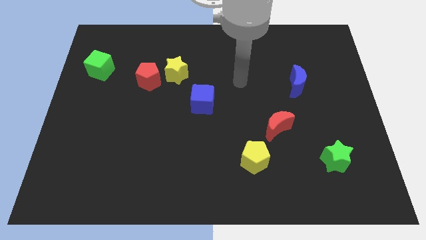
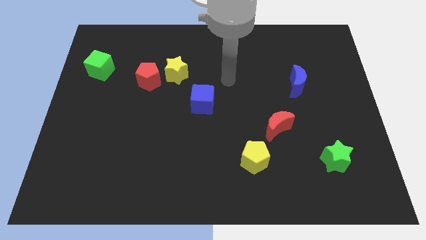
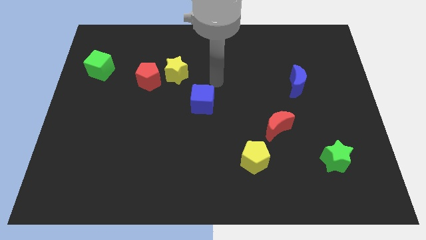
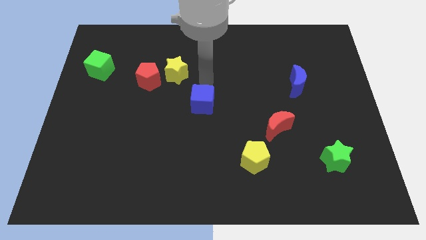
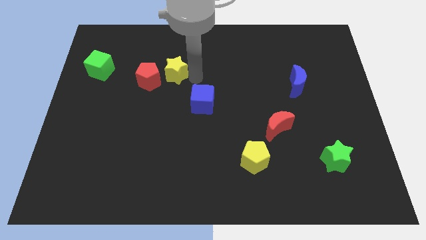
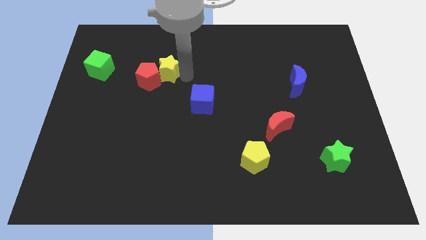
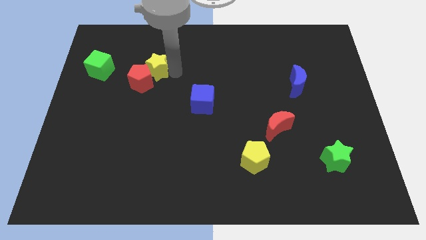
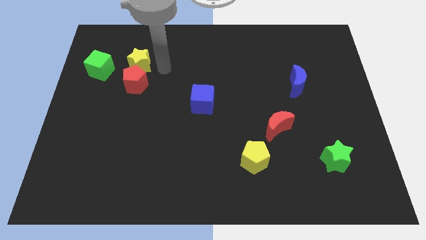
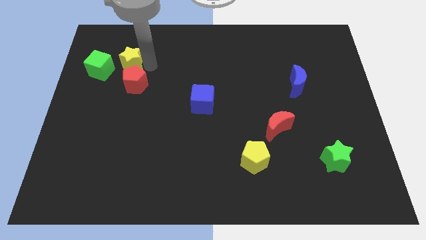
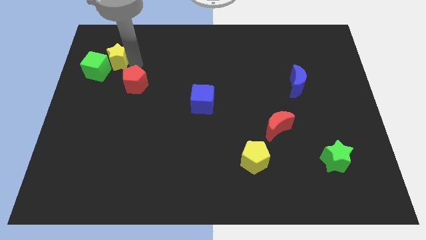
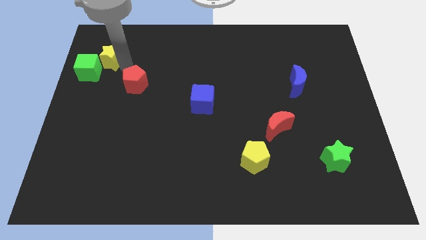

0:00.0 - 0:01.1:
separate the red pentagon from the yellow star

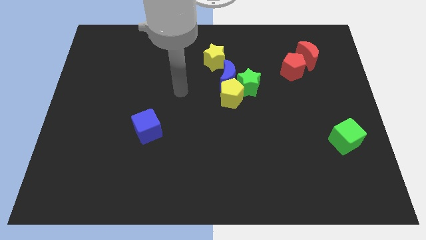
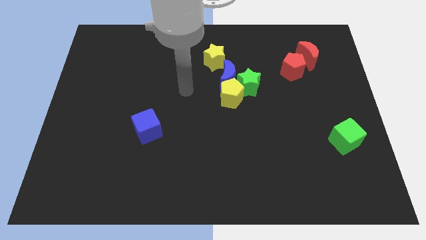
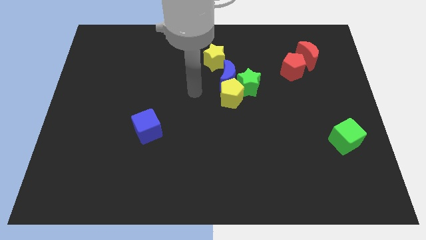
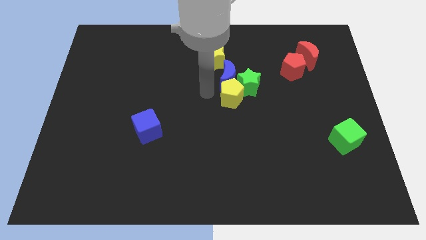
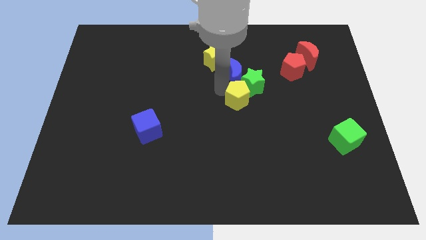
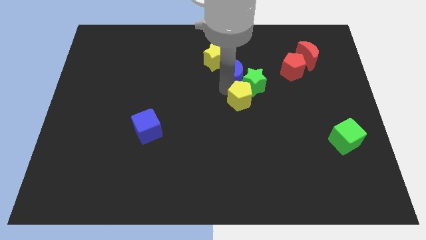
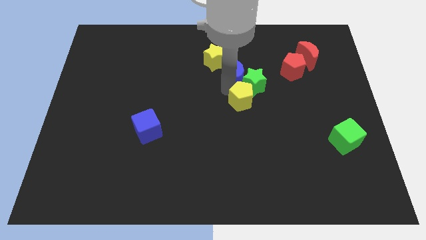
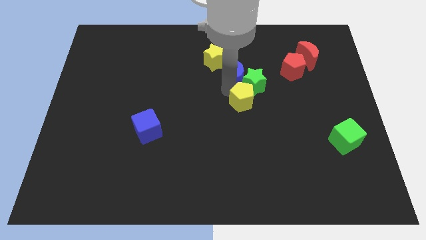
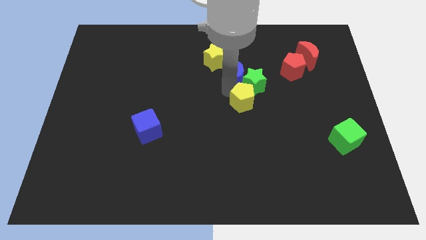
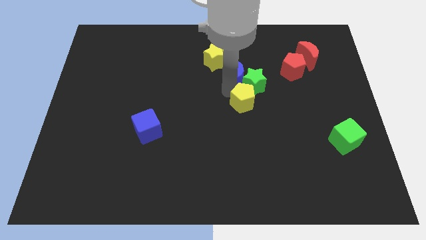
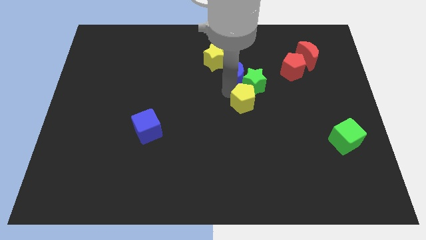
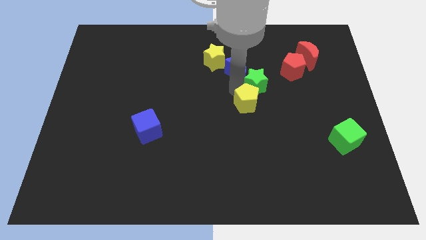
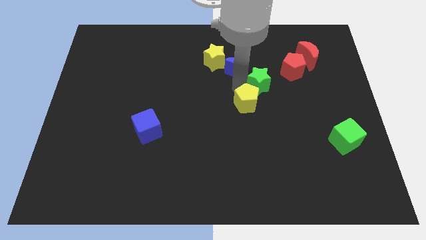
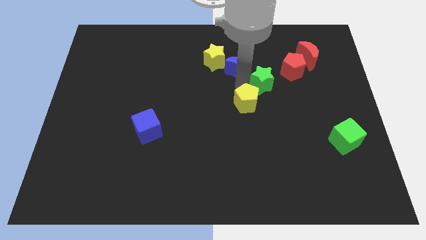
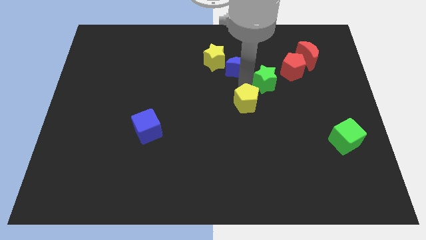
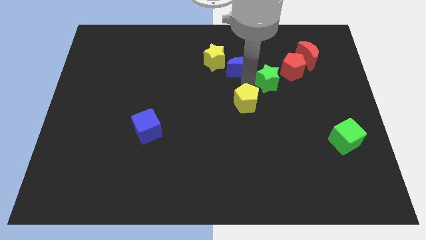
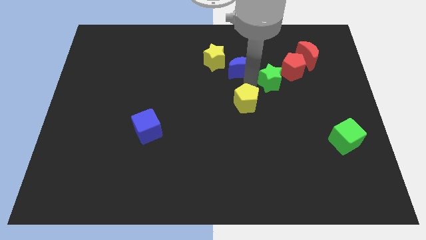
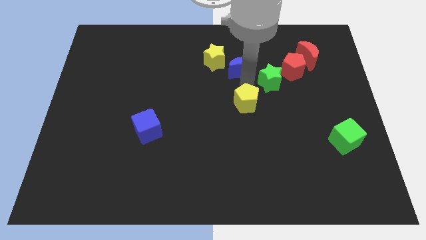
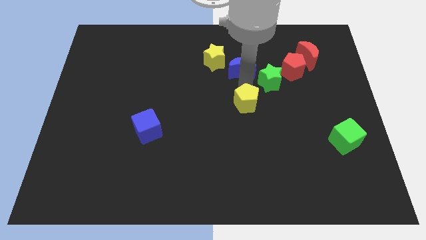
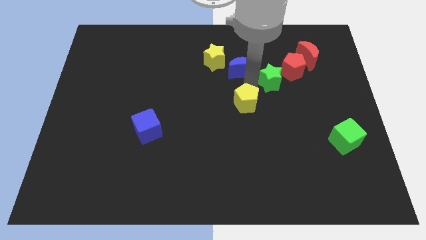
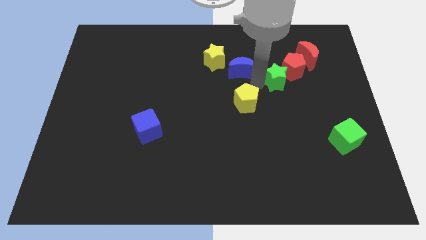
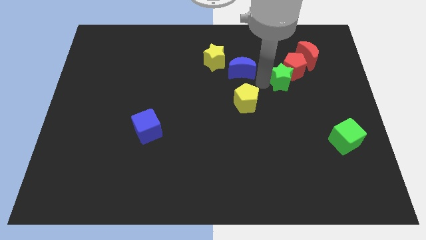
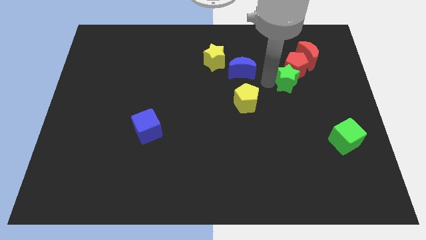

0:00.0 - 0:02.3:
move the green star away from the blue moon and yellow pentagon

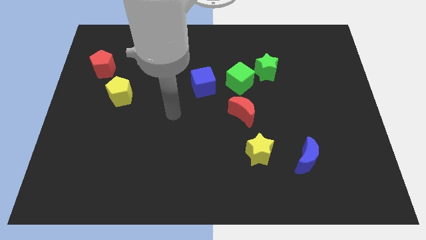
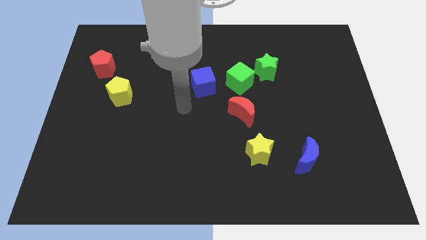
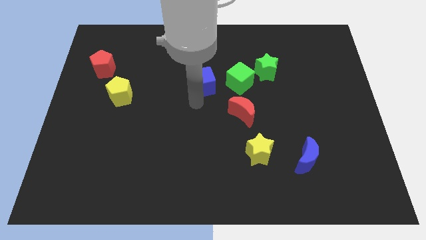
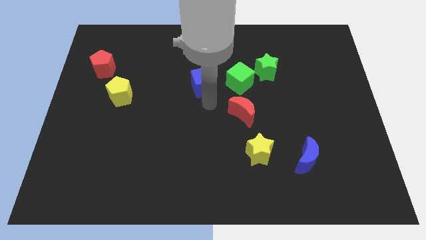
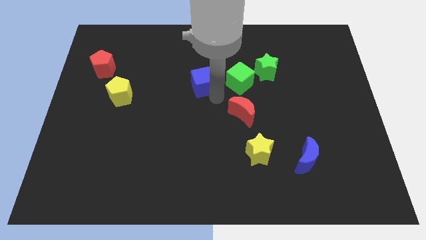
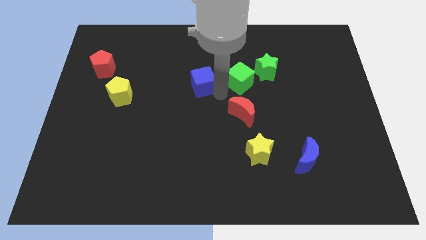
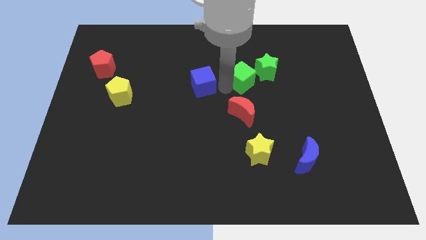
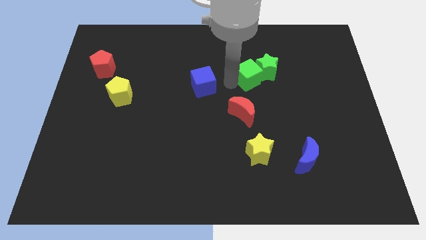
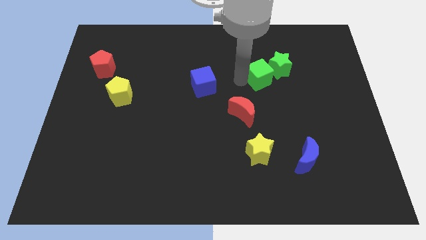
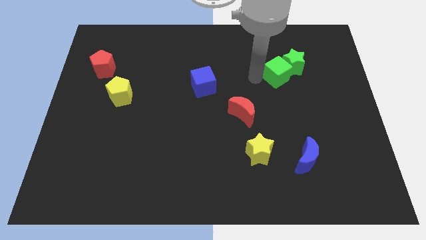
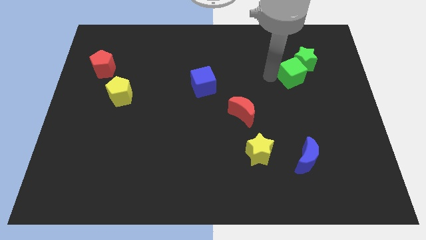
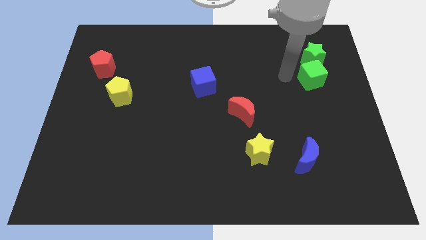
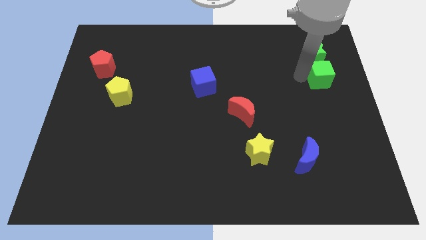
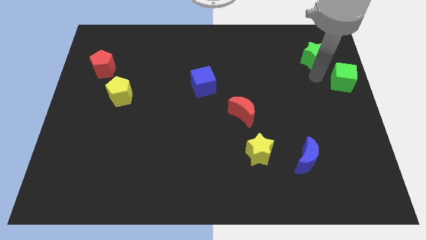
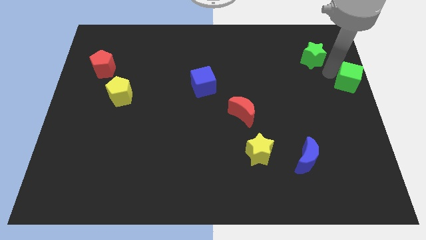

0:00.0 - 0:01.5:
pull the green star apart from the green cube

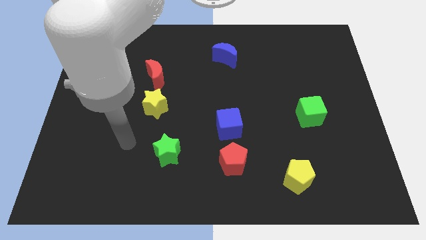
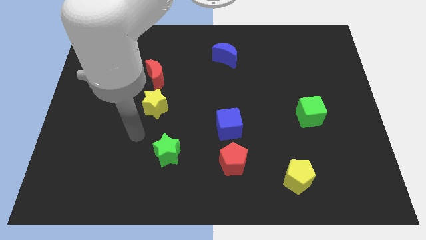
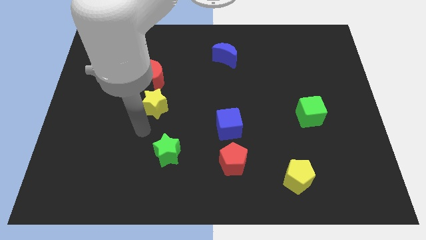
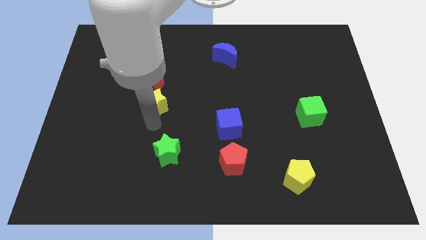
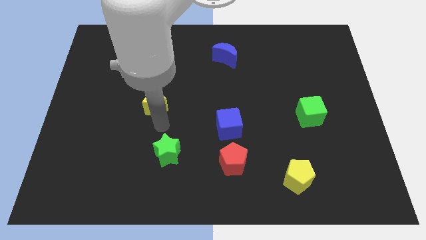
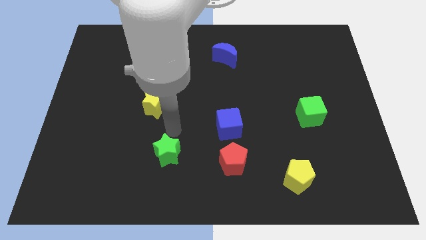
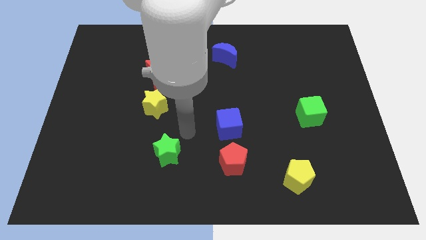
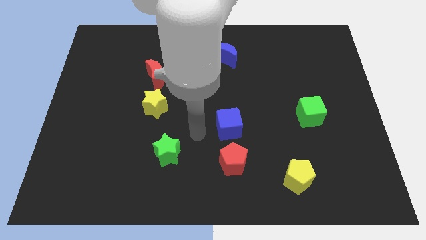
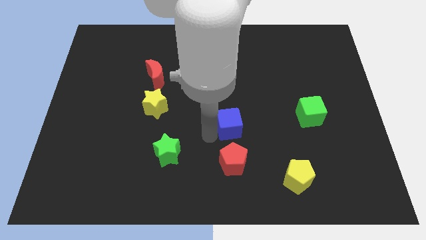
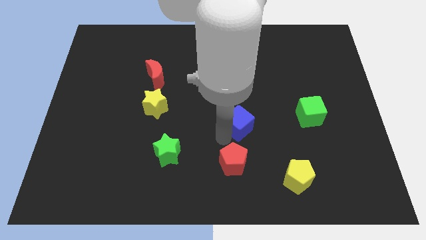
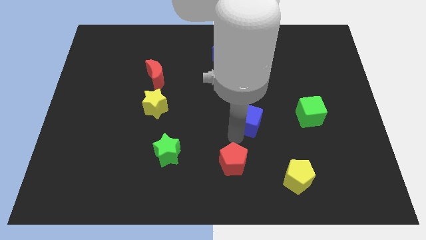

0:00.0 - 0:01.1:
move the red pentagon away from the blue cube

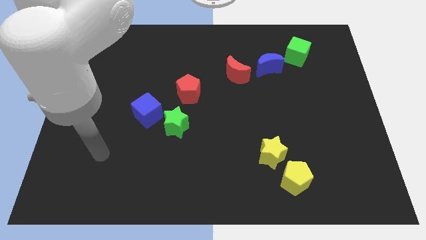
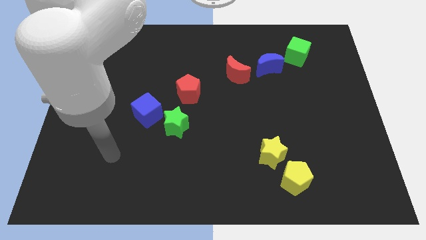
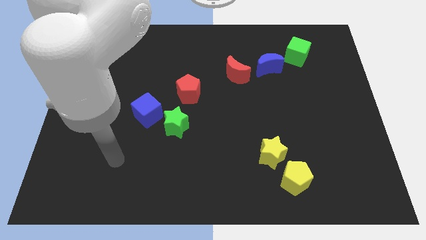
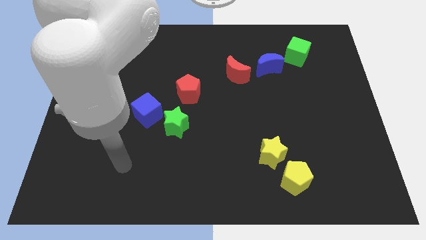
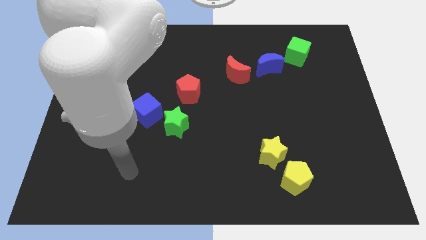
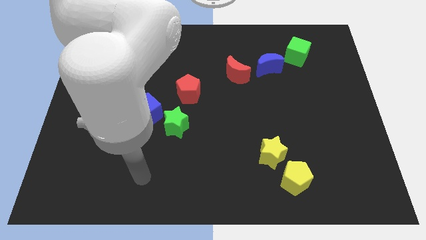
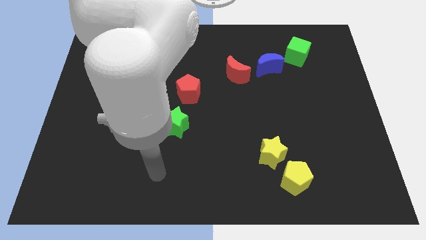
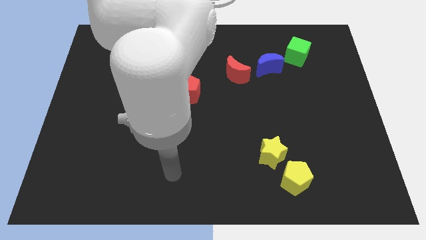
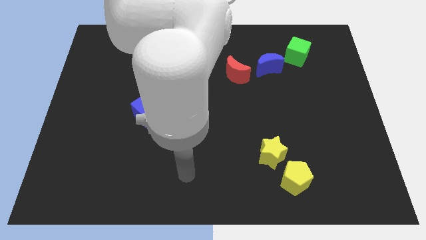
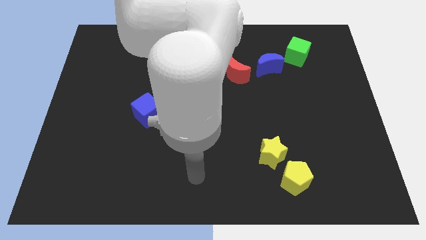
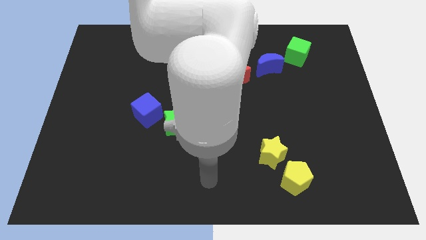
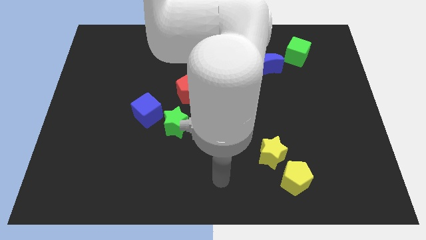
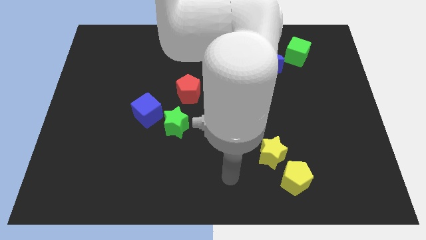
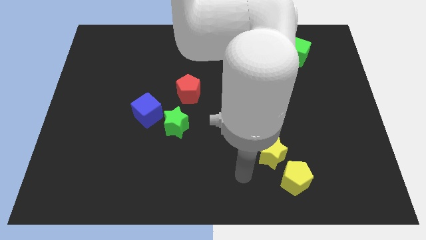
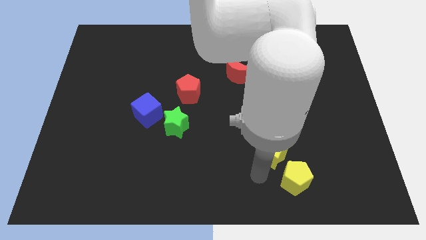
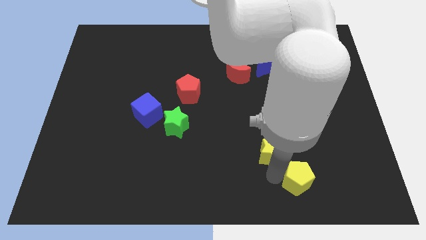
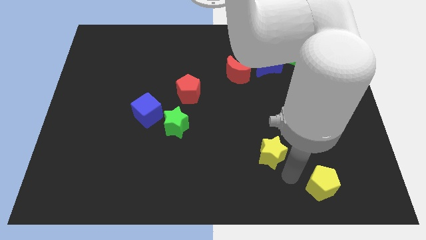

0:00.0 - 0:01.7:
pull the yellow star apart from the yellow pentagon

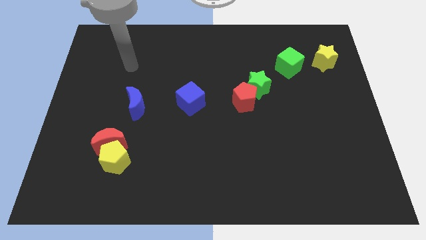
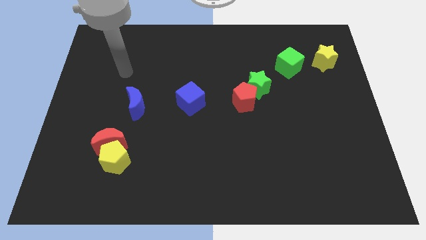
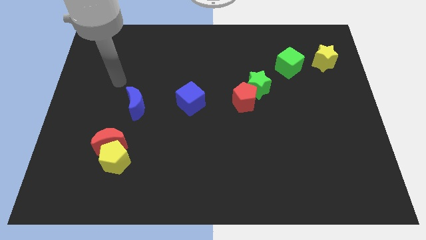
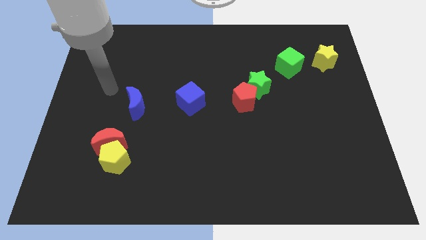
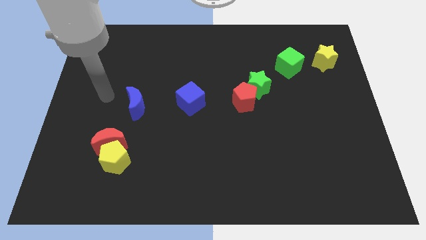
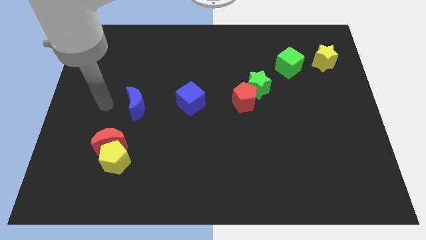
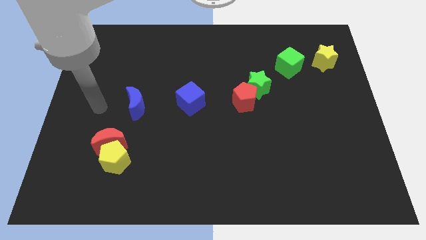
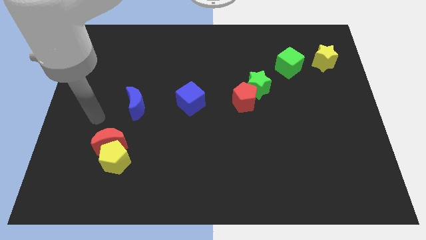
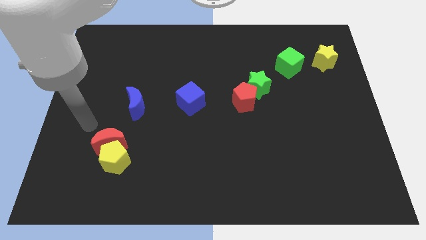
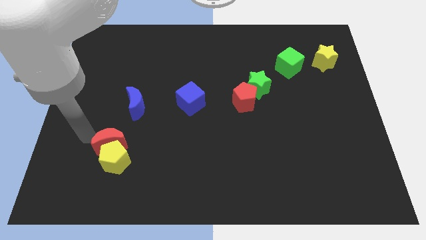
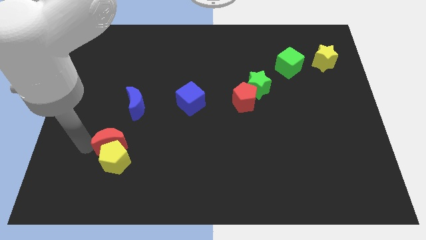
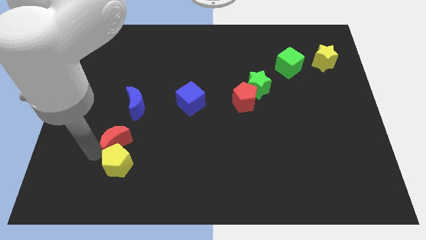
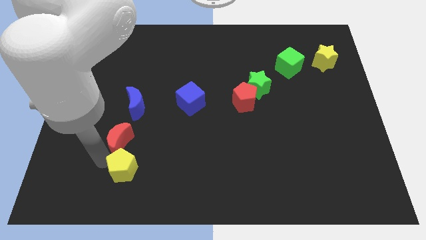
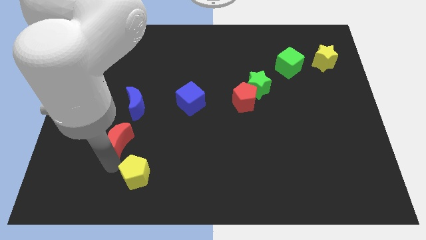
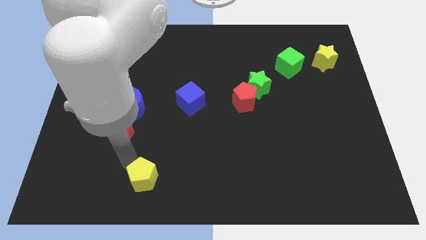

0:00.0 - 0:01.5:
pull the red moon apart from the yellow pentagon

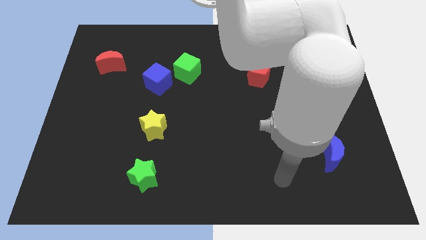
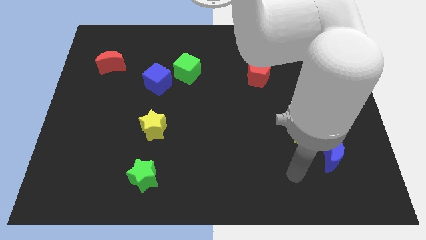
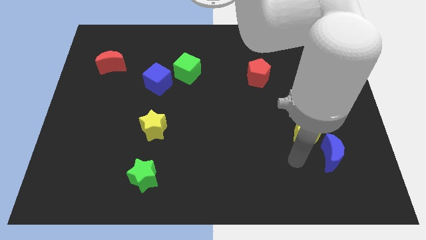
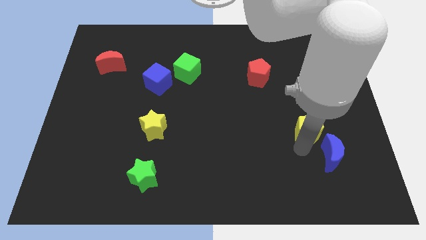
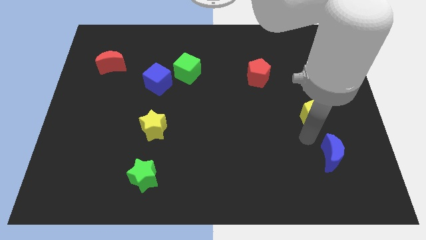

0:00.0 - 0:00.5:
move the blue moon away from the yellow pentagon
